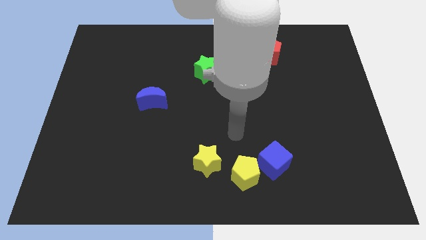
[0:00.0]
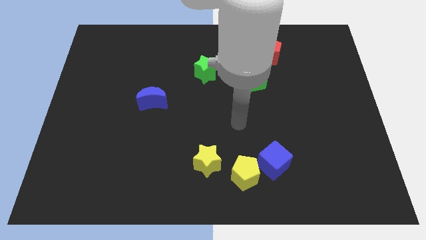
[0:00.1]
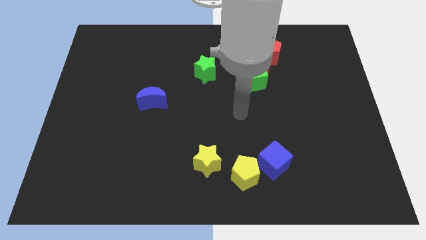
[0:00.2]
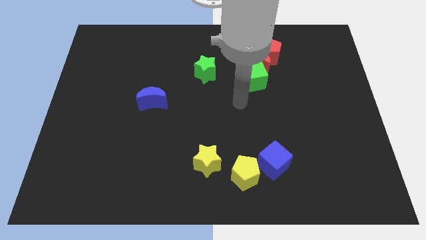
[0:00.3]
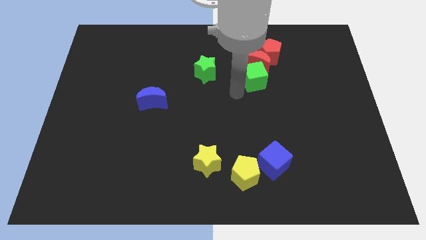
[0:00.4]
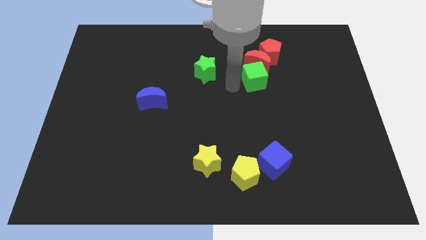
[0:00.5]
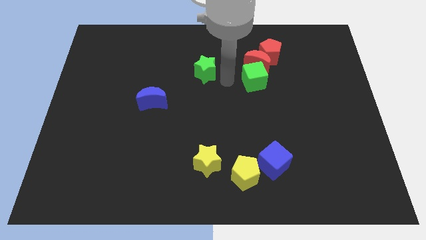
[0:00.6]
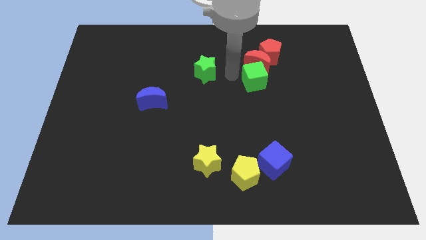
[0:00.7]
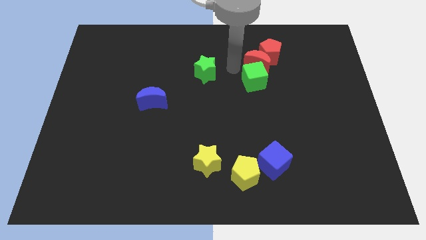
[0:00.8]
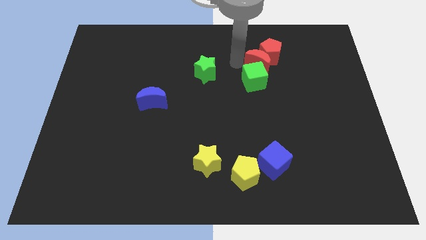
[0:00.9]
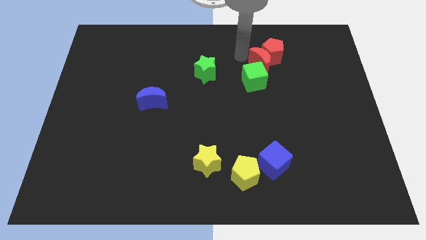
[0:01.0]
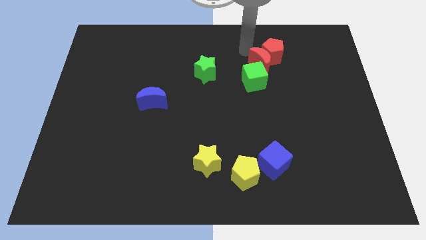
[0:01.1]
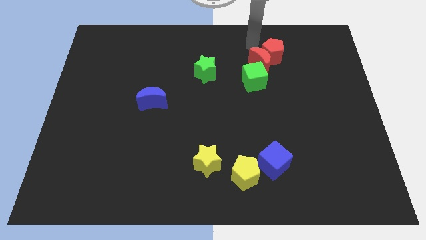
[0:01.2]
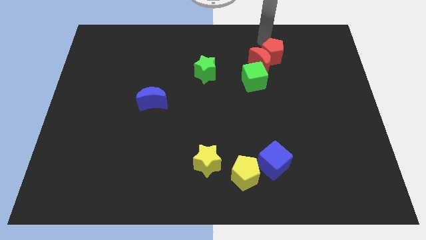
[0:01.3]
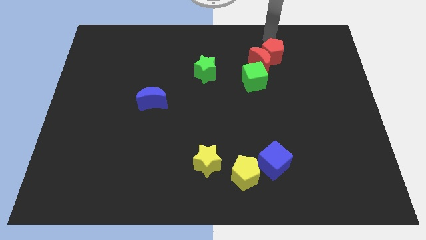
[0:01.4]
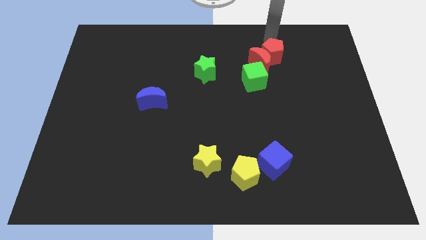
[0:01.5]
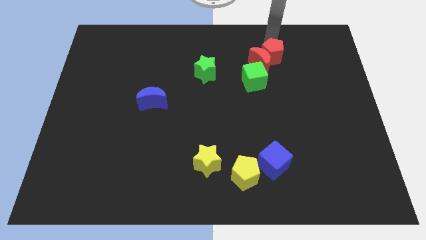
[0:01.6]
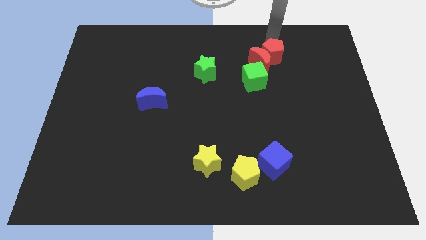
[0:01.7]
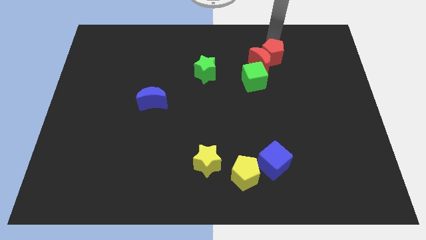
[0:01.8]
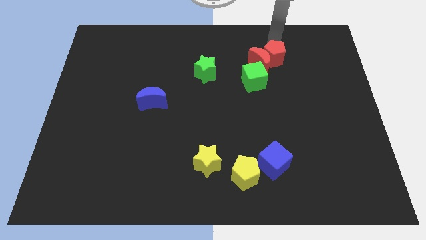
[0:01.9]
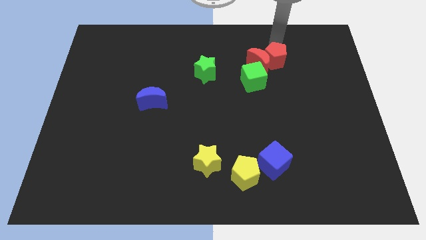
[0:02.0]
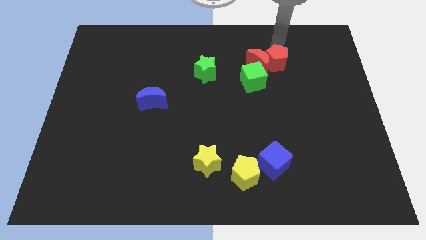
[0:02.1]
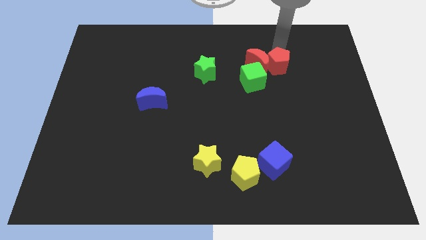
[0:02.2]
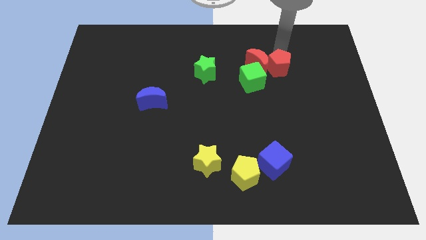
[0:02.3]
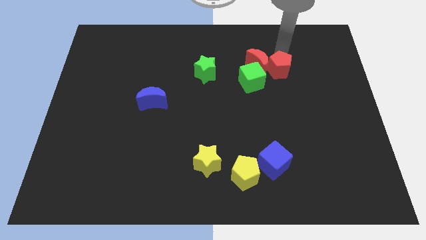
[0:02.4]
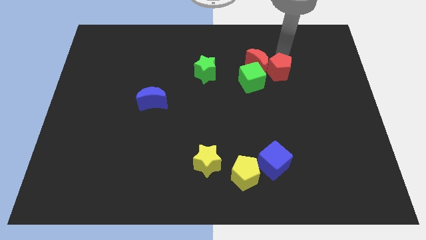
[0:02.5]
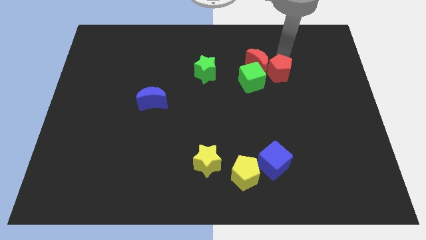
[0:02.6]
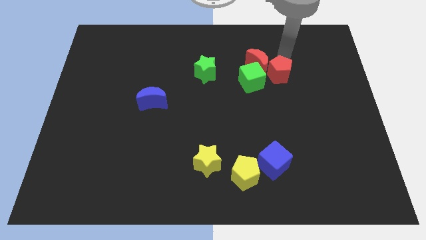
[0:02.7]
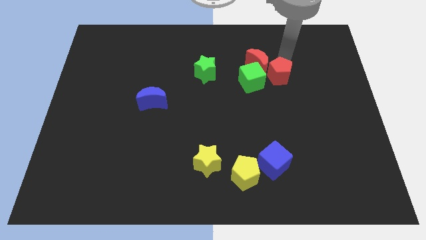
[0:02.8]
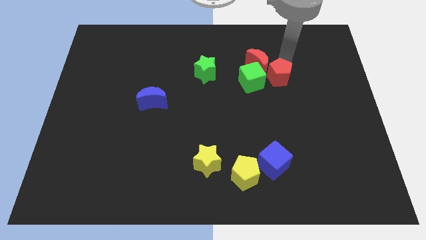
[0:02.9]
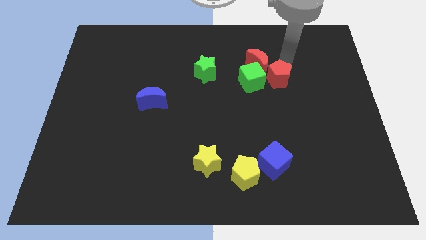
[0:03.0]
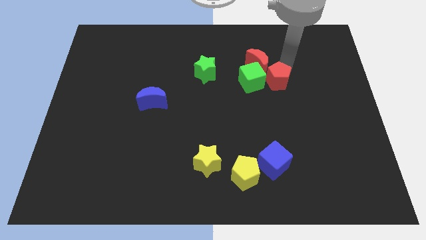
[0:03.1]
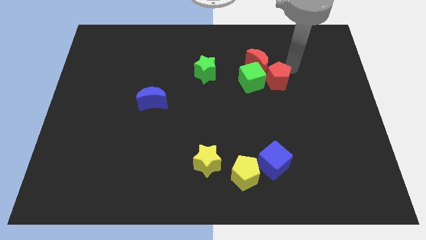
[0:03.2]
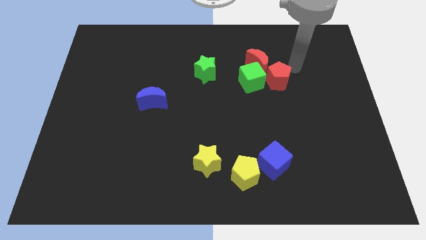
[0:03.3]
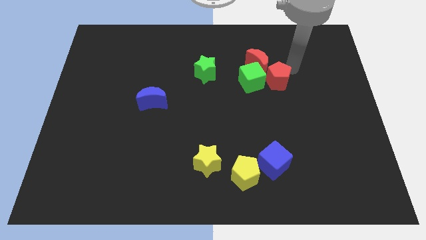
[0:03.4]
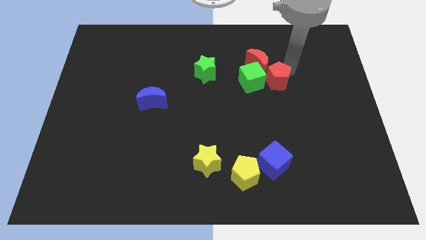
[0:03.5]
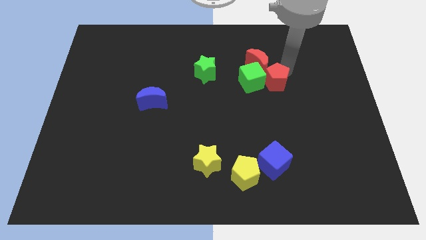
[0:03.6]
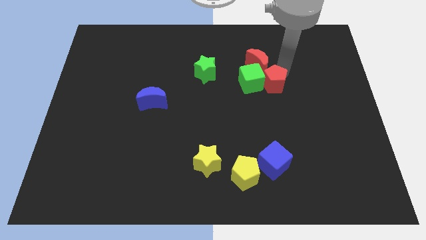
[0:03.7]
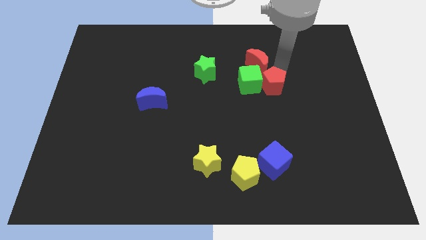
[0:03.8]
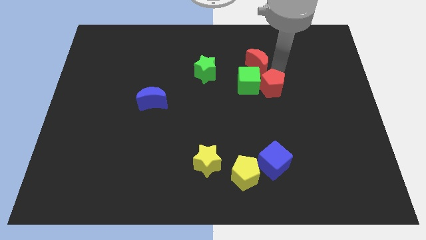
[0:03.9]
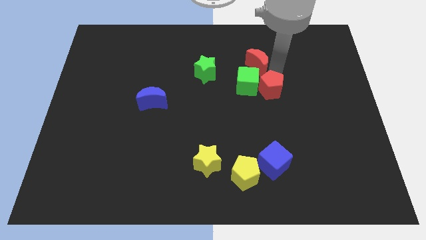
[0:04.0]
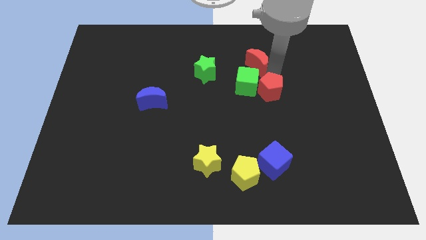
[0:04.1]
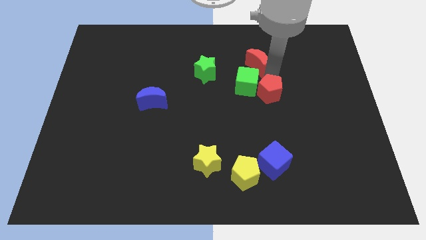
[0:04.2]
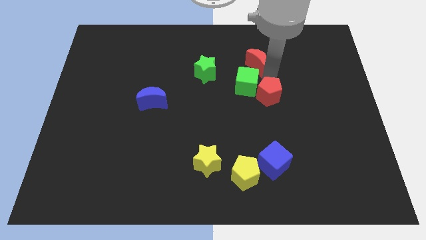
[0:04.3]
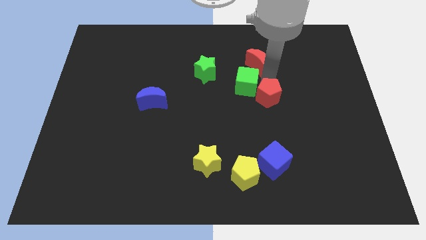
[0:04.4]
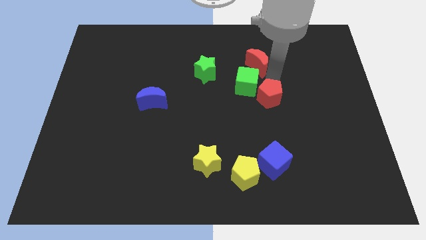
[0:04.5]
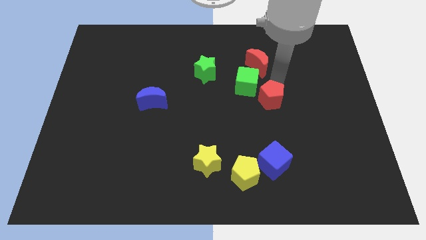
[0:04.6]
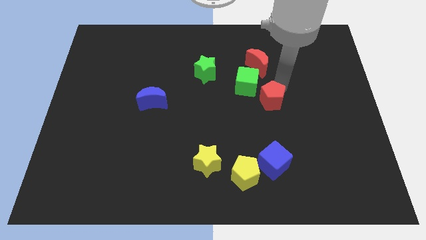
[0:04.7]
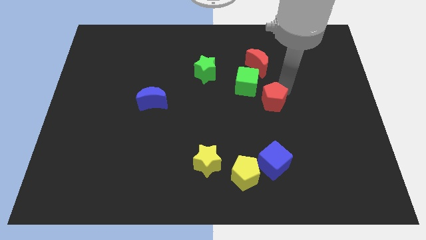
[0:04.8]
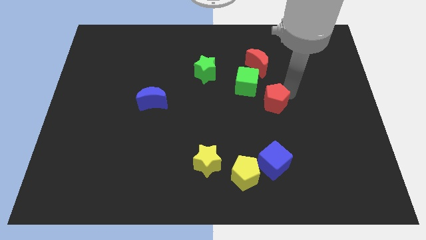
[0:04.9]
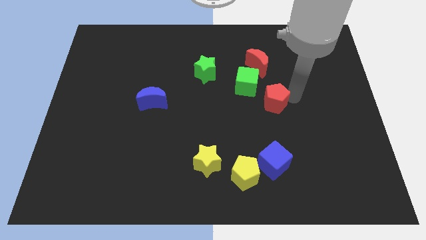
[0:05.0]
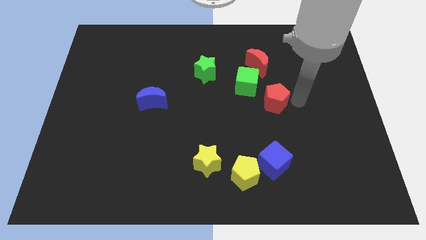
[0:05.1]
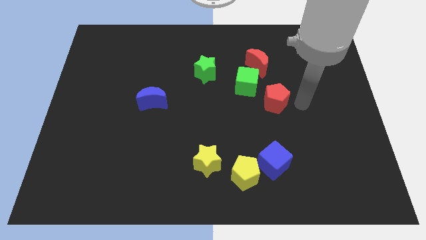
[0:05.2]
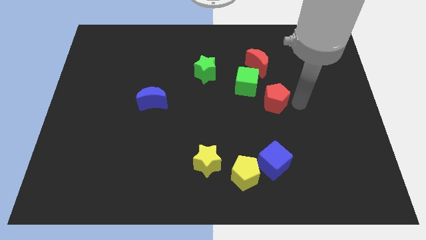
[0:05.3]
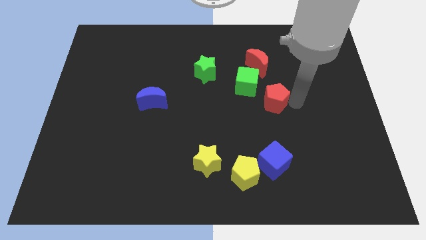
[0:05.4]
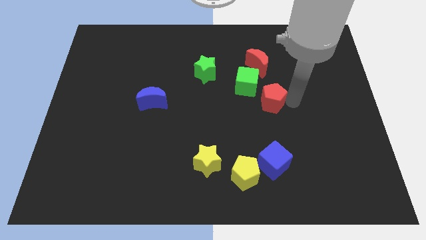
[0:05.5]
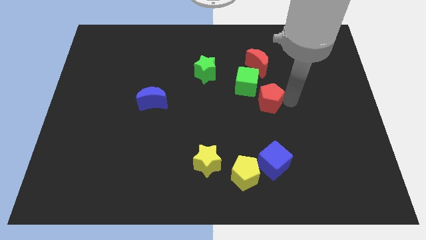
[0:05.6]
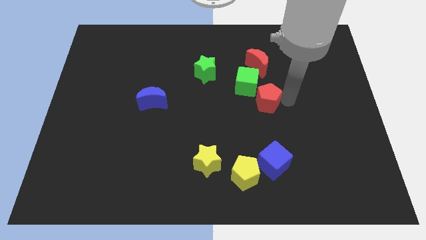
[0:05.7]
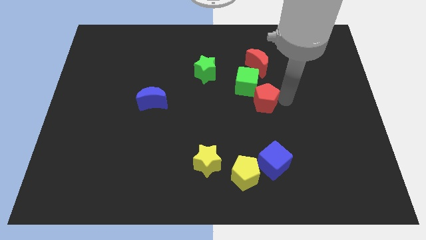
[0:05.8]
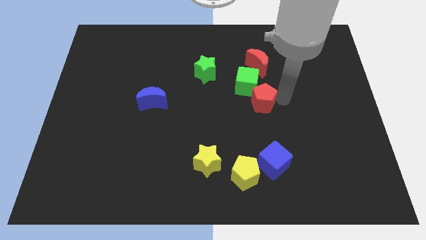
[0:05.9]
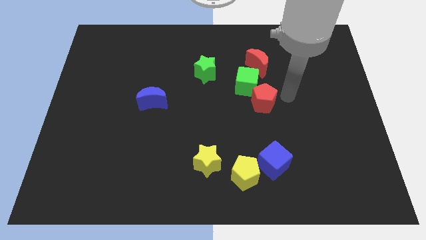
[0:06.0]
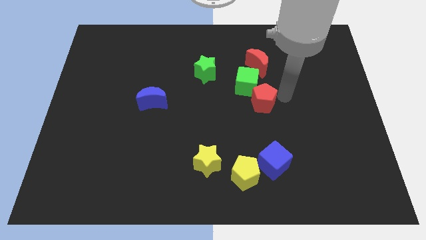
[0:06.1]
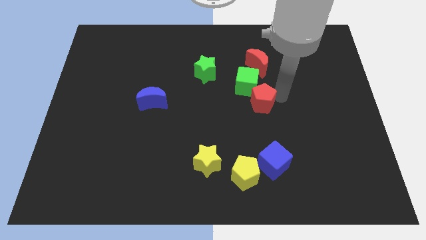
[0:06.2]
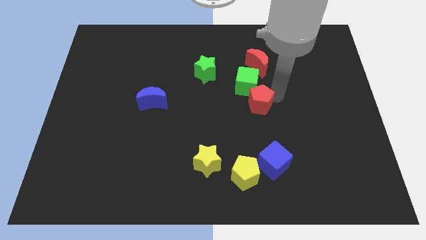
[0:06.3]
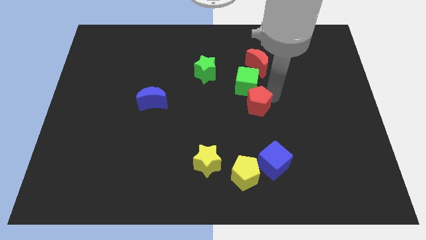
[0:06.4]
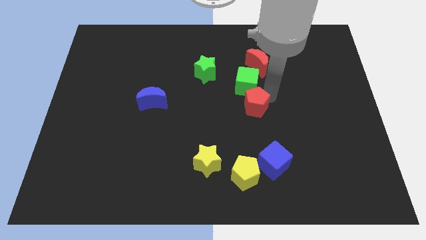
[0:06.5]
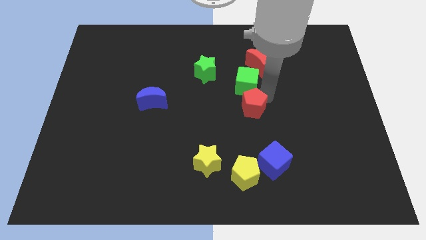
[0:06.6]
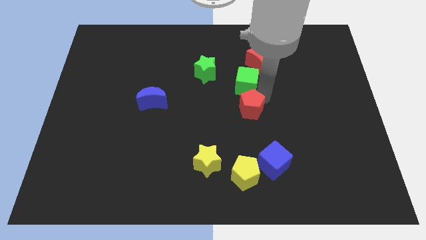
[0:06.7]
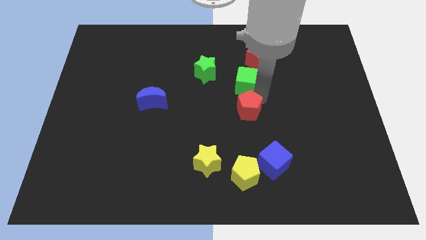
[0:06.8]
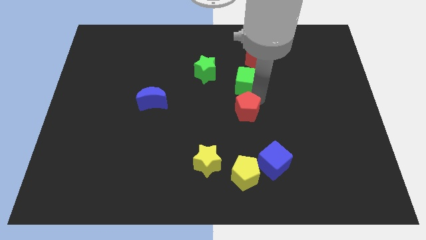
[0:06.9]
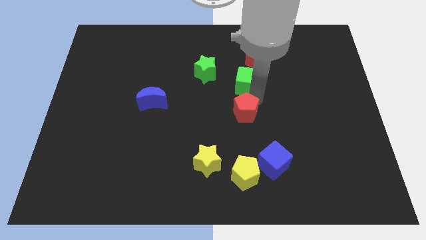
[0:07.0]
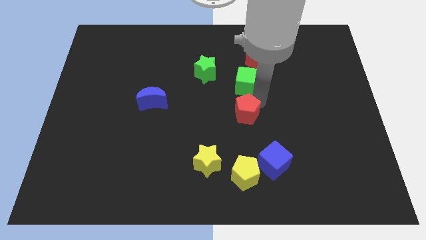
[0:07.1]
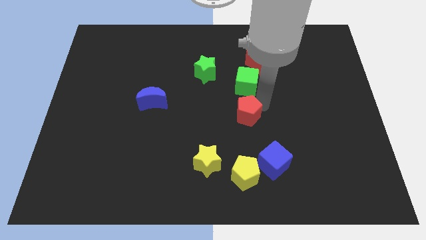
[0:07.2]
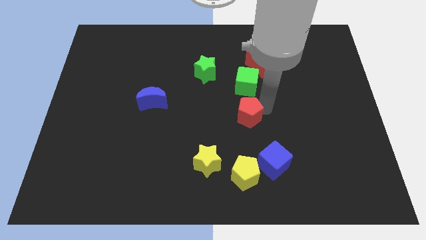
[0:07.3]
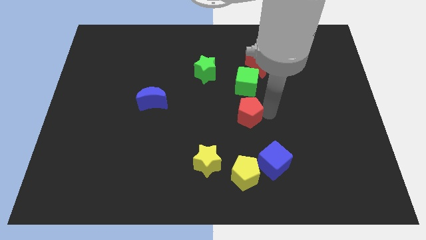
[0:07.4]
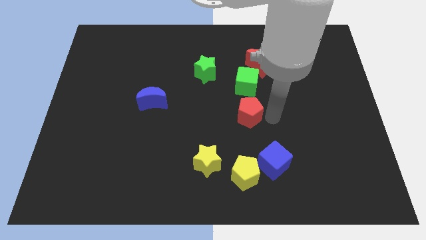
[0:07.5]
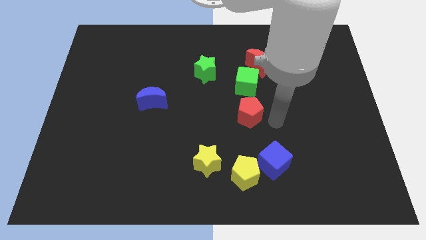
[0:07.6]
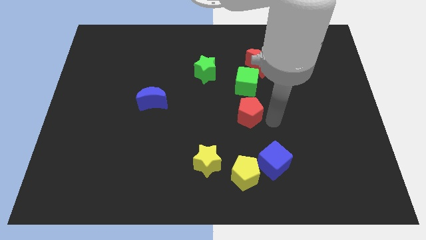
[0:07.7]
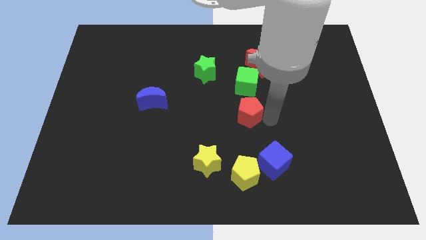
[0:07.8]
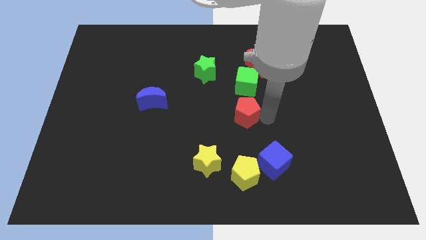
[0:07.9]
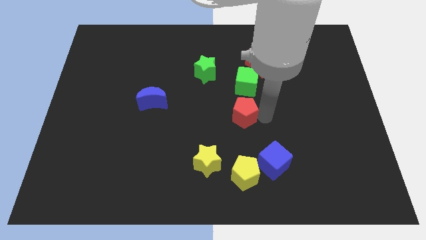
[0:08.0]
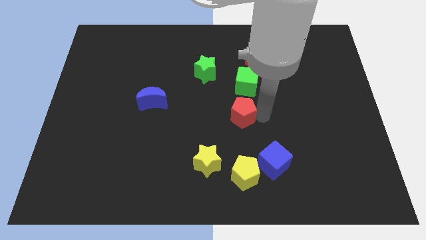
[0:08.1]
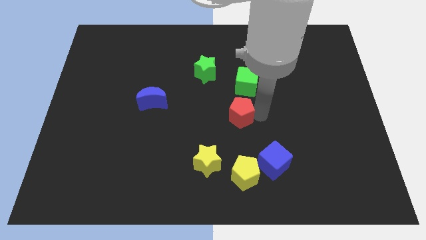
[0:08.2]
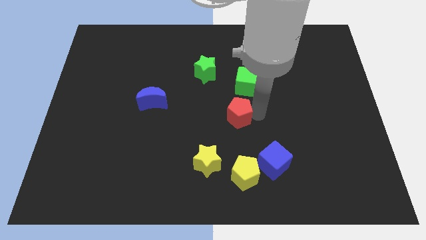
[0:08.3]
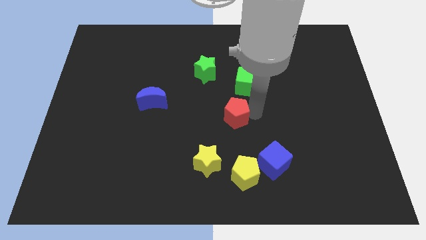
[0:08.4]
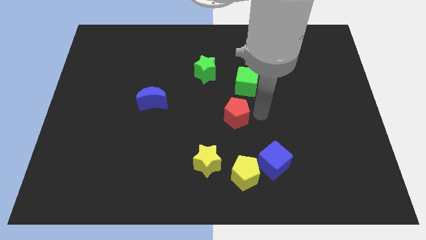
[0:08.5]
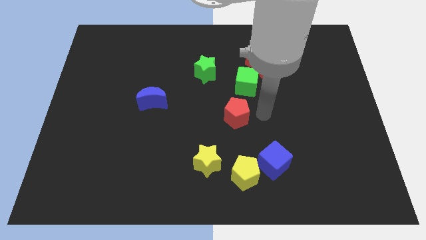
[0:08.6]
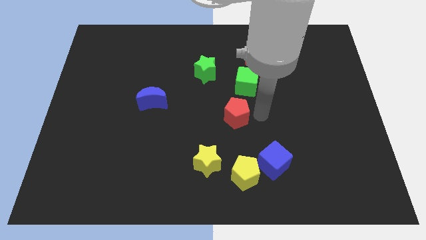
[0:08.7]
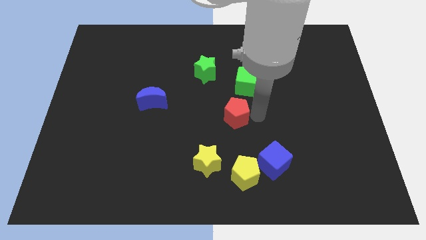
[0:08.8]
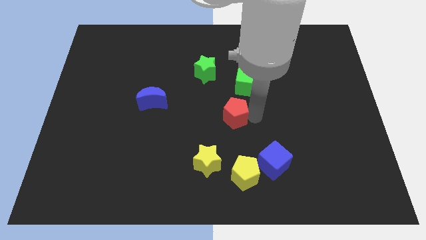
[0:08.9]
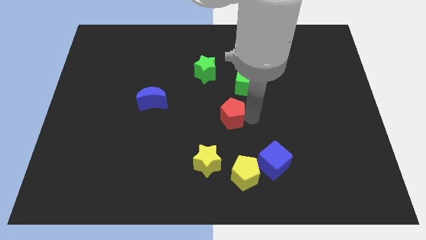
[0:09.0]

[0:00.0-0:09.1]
slide the red pentagon diagonally down and to the left
